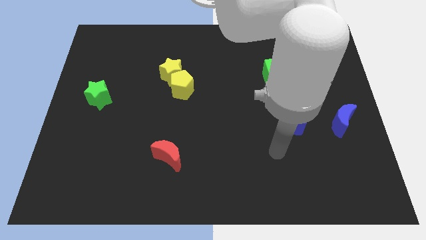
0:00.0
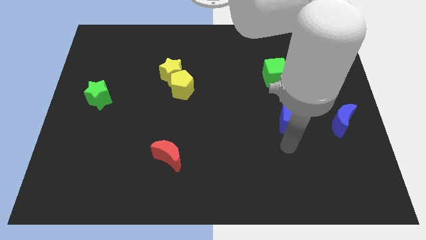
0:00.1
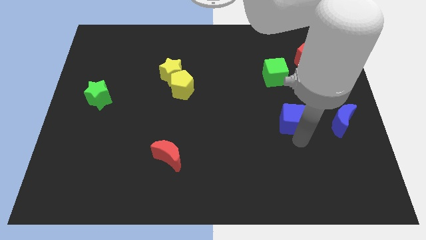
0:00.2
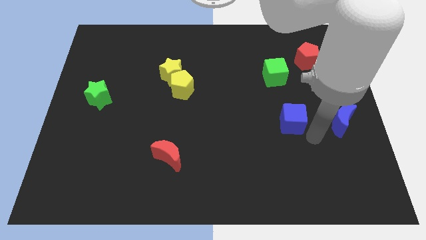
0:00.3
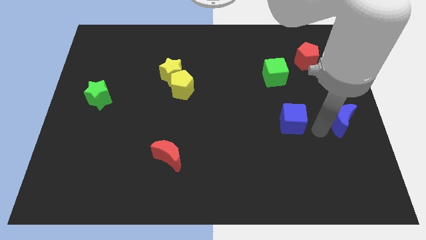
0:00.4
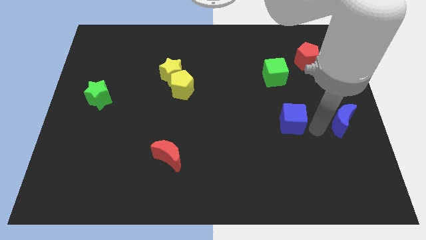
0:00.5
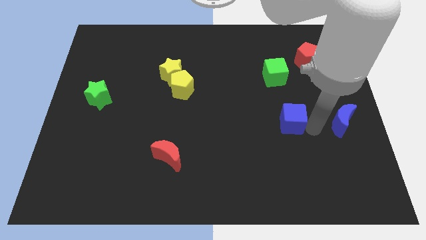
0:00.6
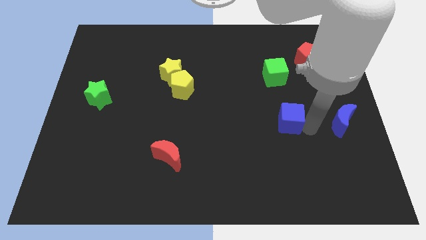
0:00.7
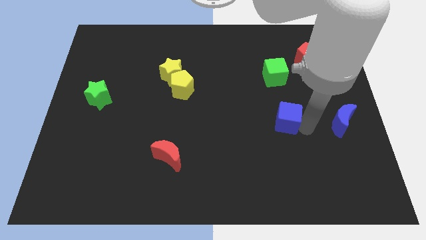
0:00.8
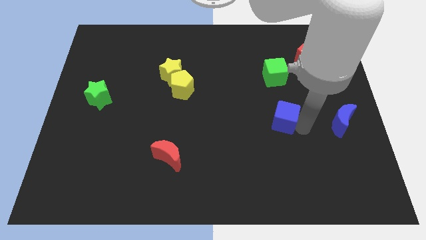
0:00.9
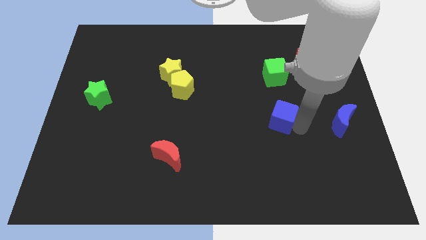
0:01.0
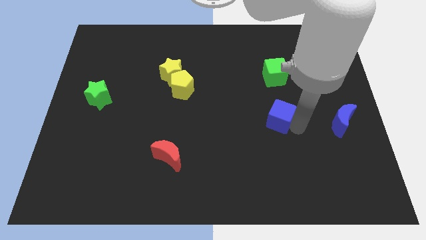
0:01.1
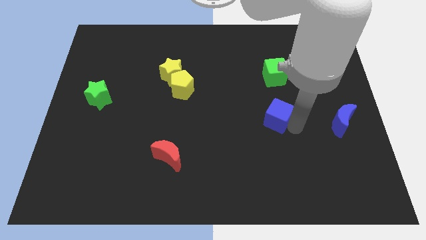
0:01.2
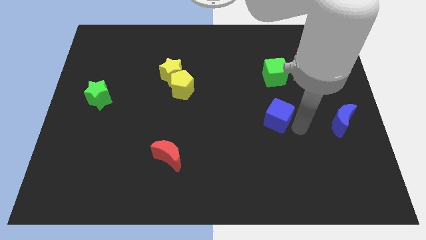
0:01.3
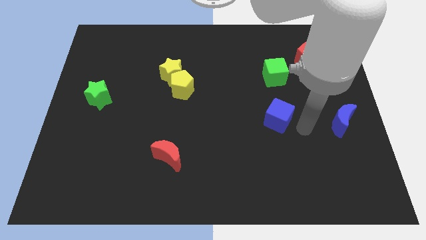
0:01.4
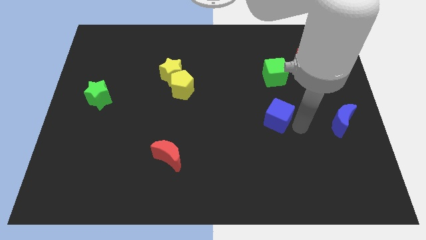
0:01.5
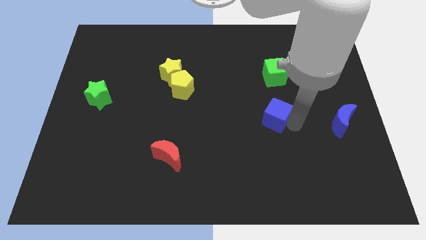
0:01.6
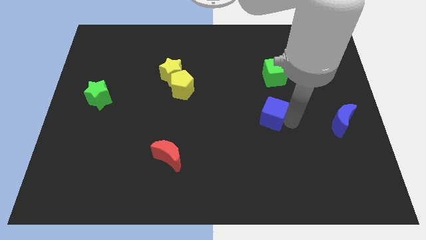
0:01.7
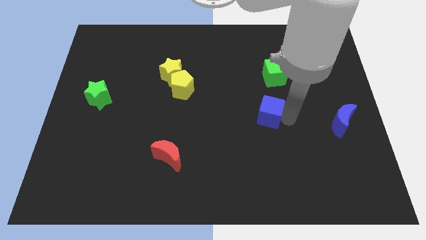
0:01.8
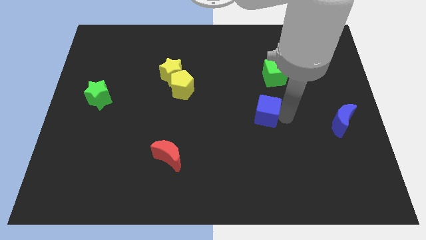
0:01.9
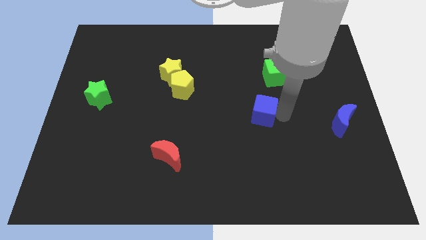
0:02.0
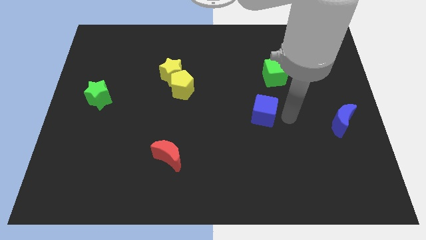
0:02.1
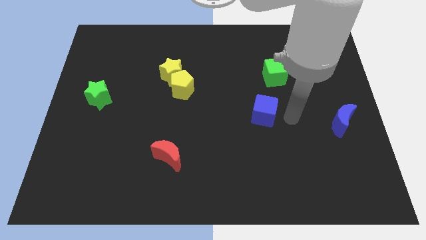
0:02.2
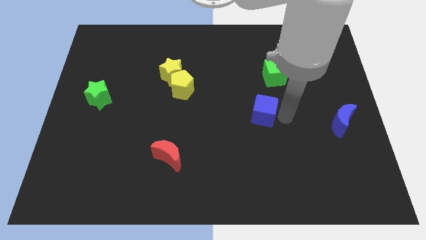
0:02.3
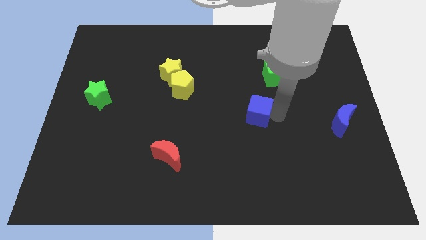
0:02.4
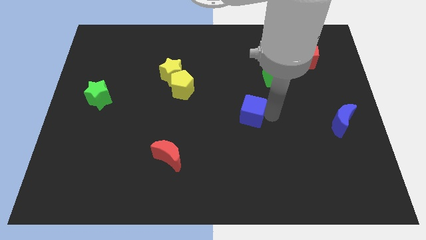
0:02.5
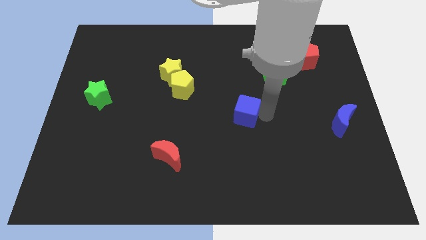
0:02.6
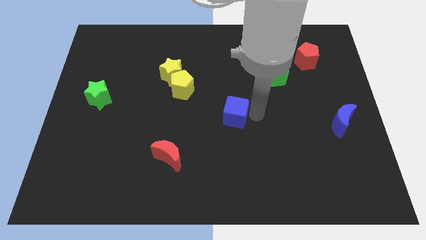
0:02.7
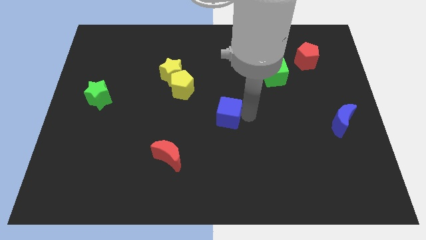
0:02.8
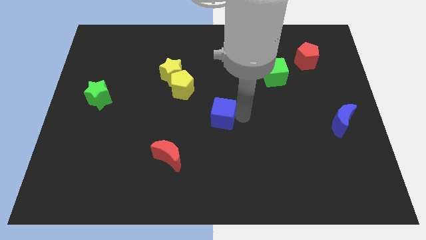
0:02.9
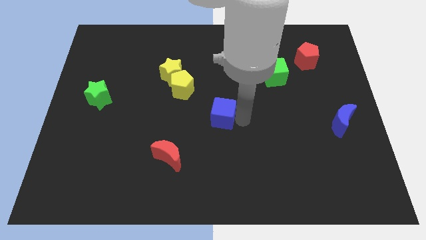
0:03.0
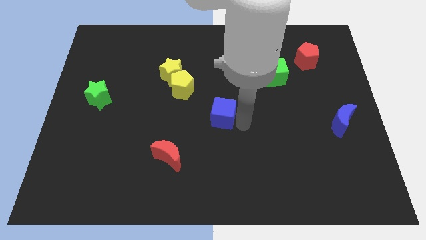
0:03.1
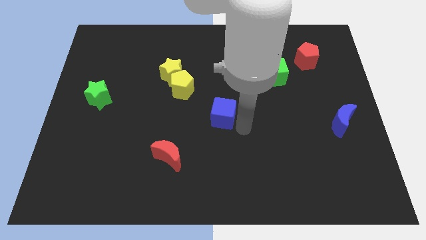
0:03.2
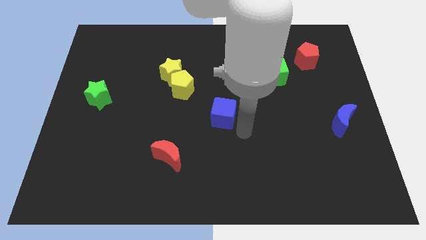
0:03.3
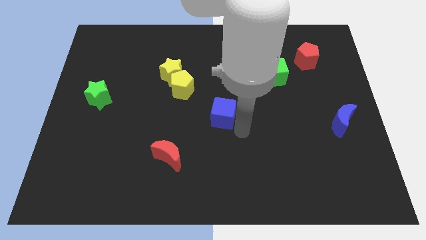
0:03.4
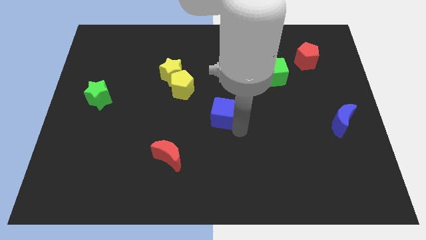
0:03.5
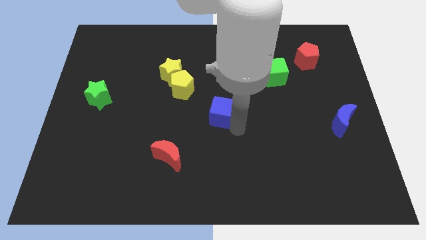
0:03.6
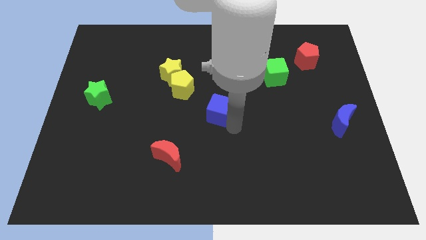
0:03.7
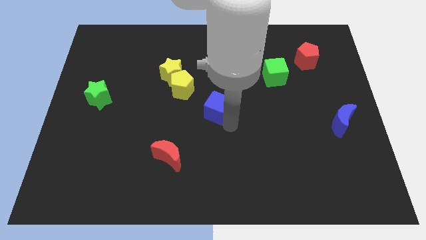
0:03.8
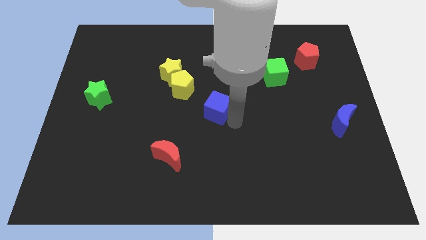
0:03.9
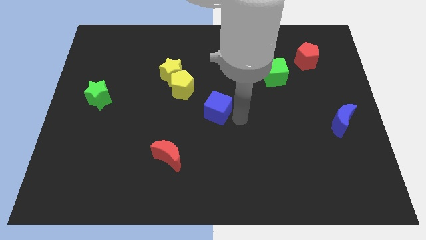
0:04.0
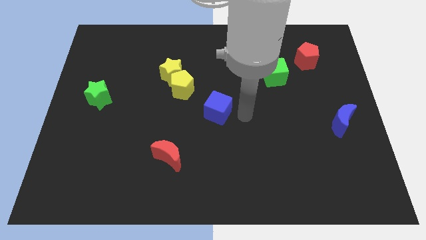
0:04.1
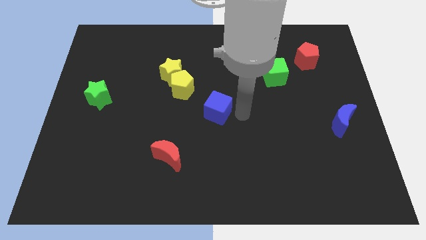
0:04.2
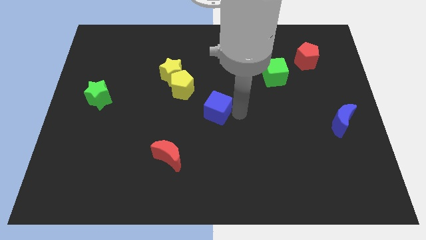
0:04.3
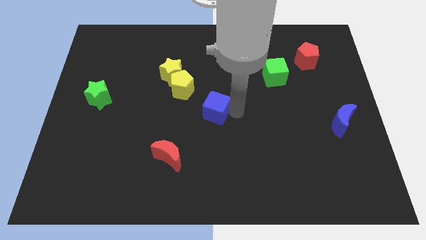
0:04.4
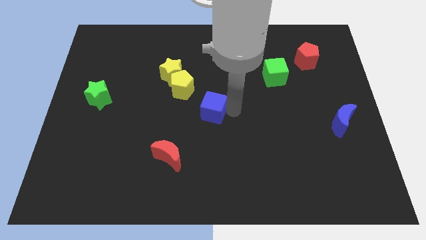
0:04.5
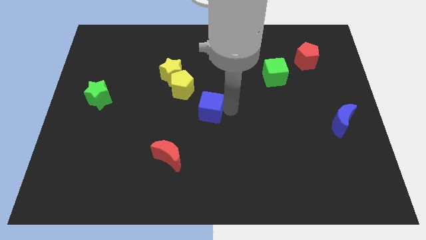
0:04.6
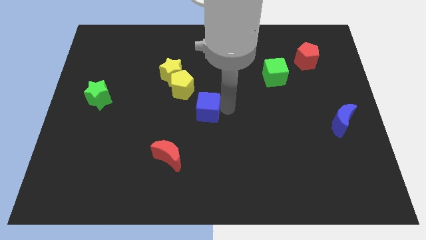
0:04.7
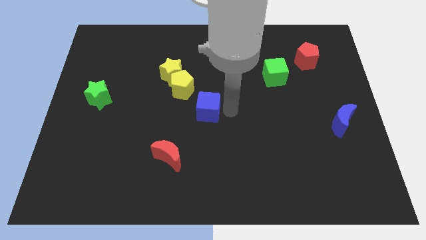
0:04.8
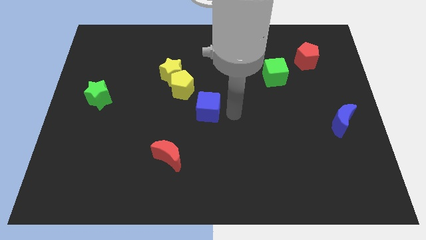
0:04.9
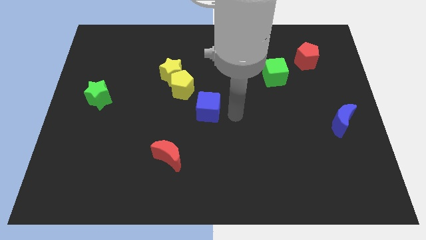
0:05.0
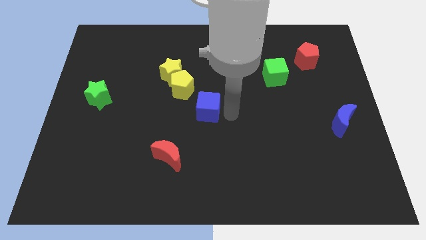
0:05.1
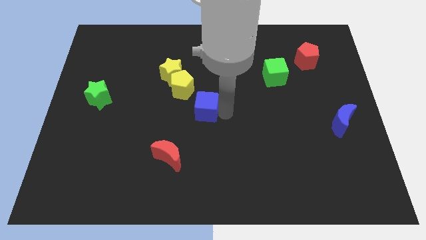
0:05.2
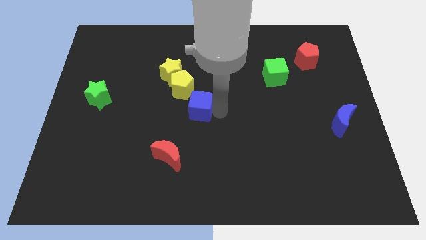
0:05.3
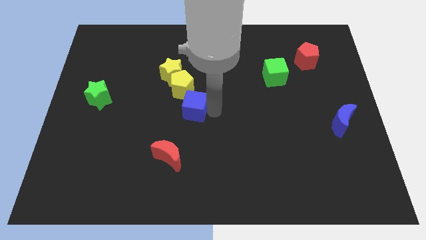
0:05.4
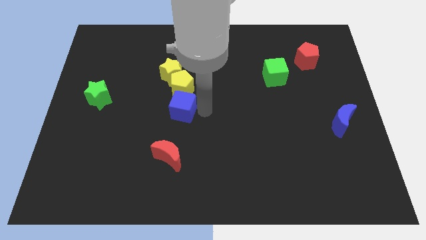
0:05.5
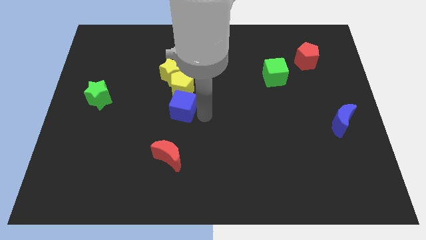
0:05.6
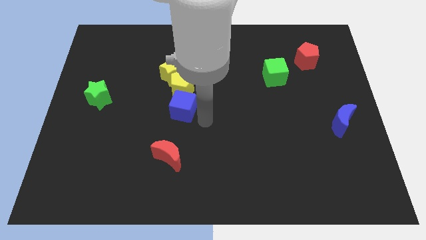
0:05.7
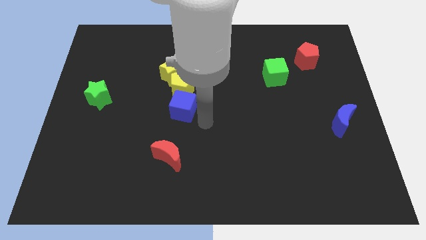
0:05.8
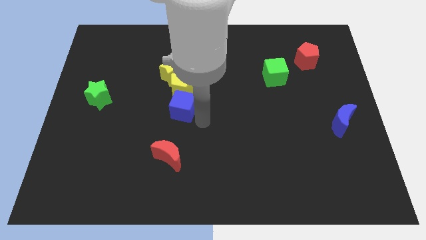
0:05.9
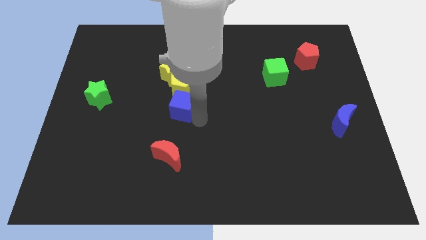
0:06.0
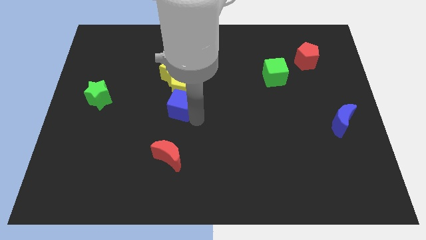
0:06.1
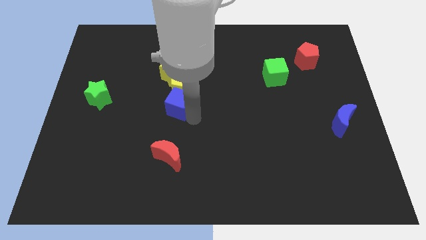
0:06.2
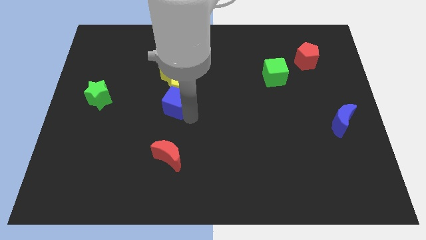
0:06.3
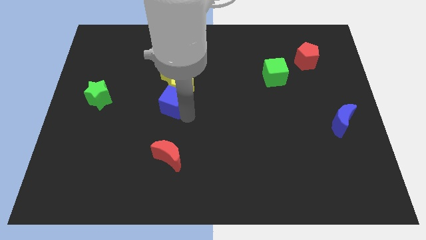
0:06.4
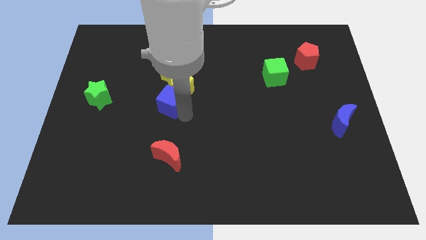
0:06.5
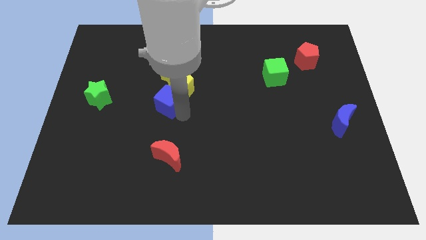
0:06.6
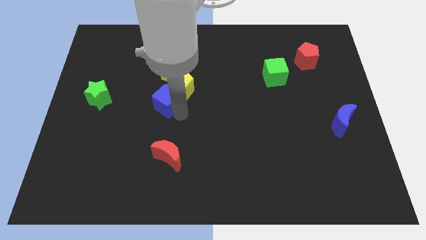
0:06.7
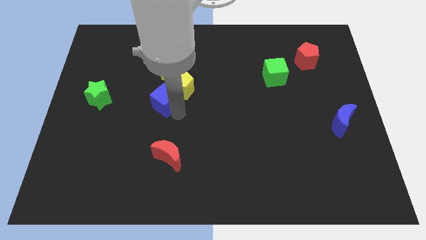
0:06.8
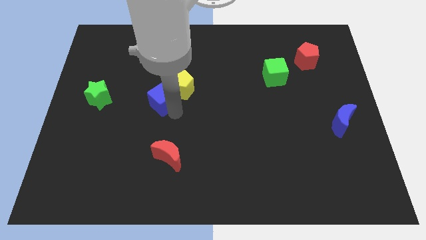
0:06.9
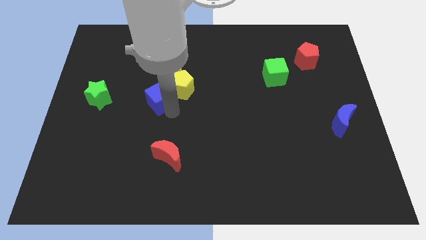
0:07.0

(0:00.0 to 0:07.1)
move the blue cube to the bottom left of the yellow star
